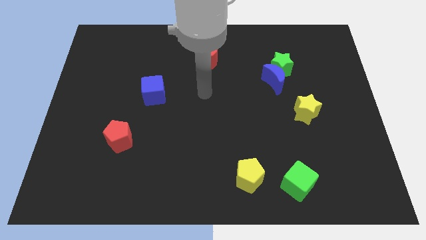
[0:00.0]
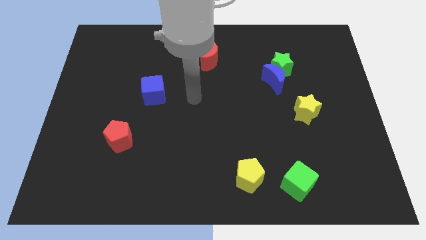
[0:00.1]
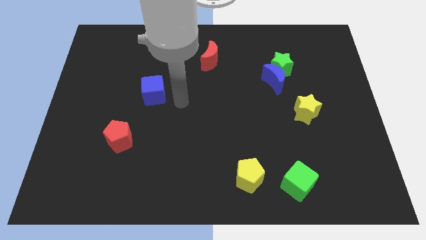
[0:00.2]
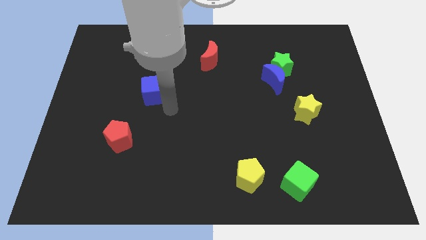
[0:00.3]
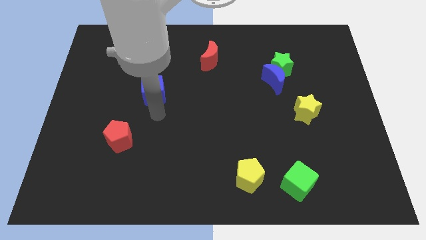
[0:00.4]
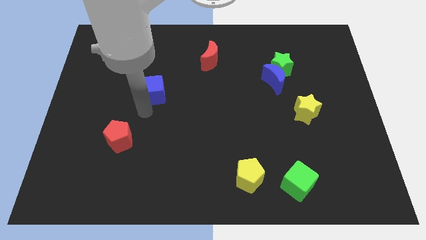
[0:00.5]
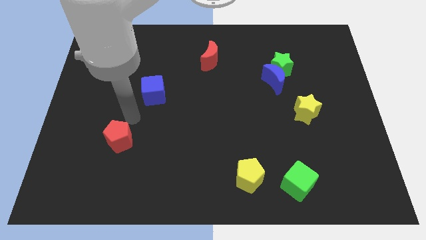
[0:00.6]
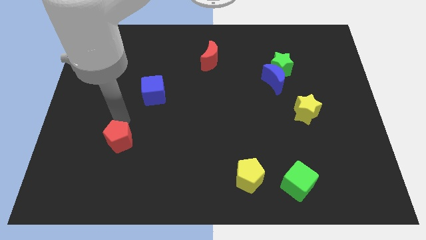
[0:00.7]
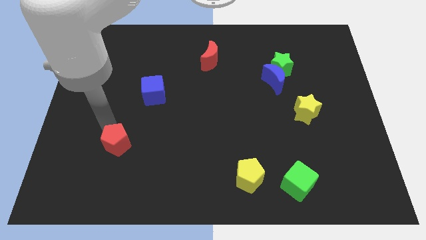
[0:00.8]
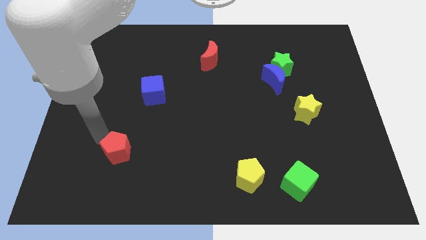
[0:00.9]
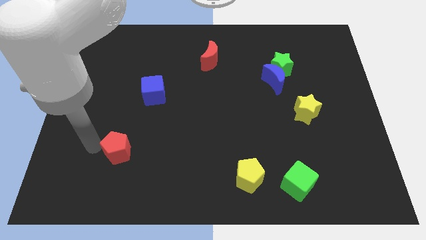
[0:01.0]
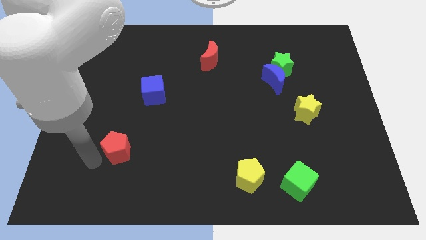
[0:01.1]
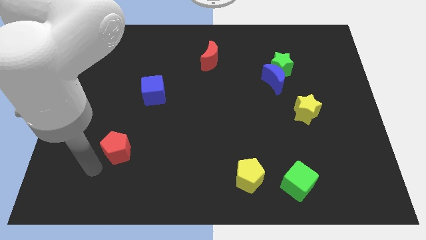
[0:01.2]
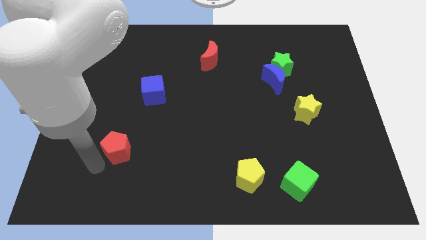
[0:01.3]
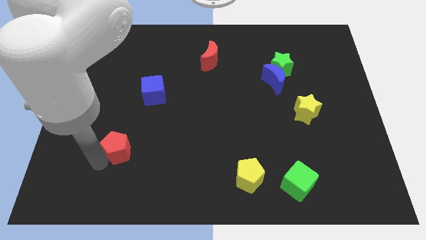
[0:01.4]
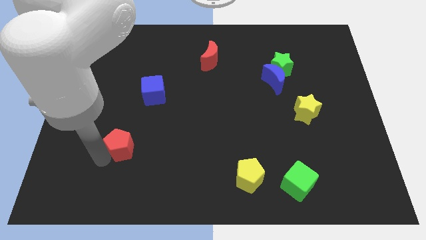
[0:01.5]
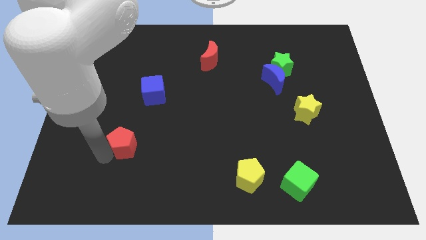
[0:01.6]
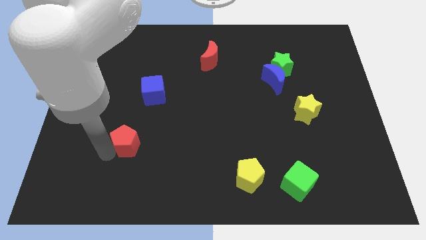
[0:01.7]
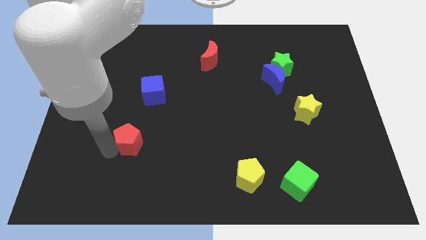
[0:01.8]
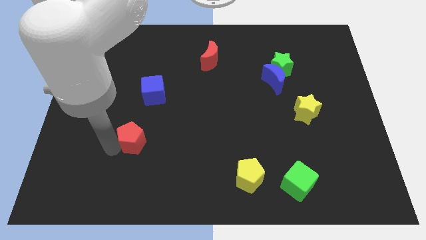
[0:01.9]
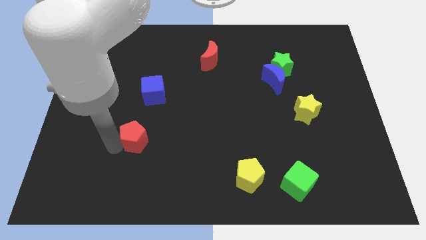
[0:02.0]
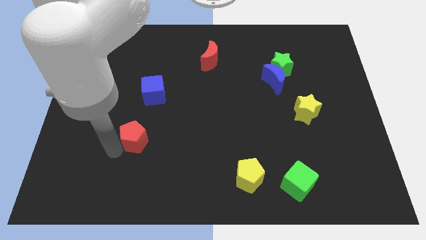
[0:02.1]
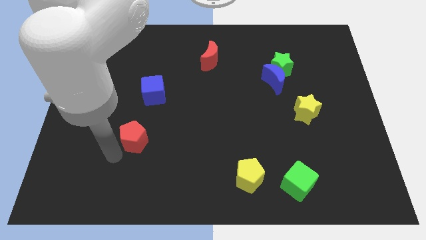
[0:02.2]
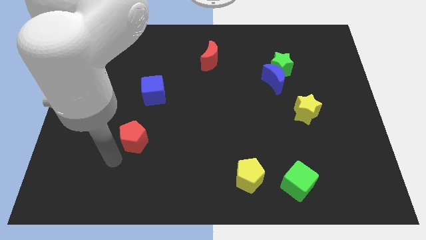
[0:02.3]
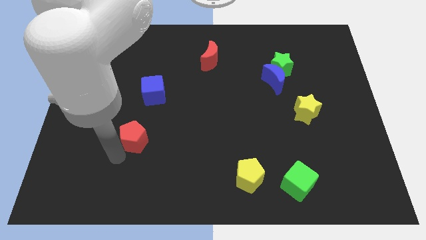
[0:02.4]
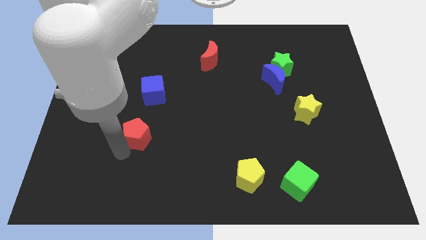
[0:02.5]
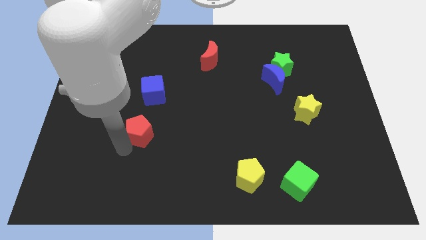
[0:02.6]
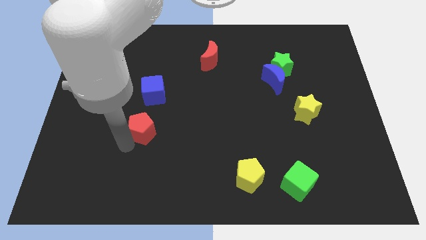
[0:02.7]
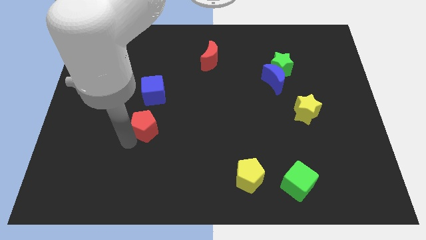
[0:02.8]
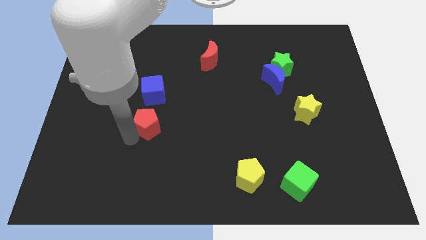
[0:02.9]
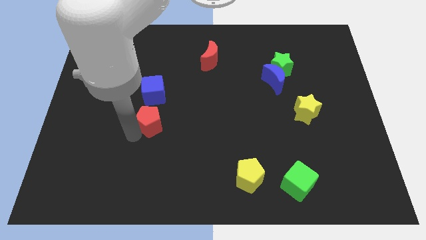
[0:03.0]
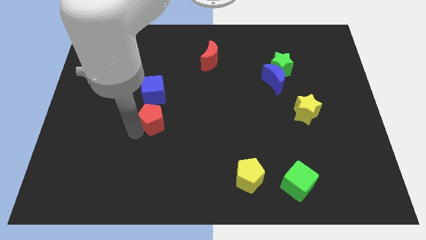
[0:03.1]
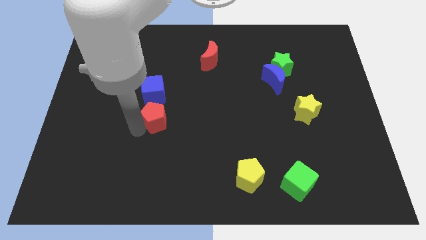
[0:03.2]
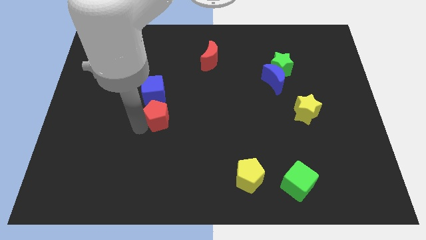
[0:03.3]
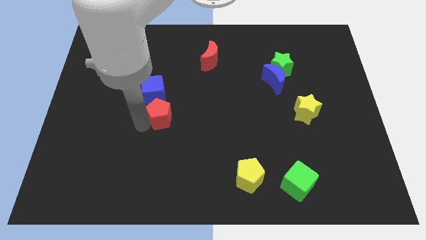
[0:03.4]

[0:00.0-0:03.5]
slightly move the red pentagon right

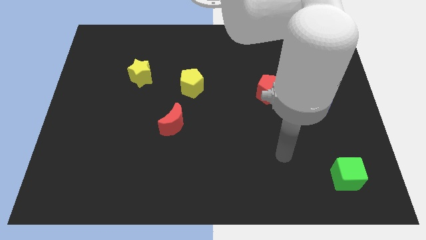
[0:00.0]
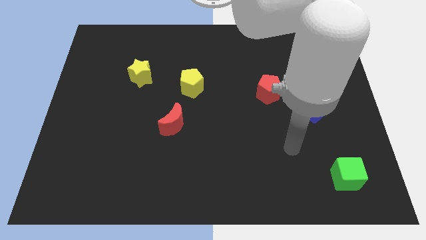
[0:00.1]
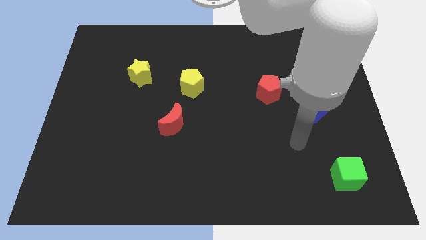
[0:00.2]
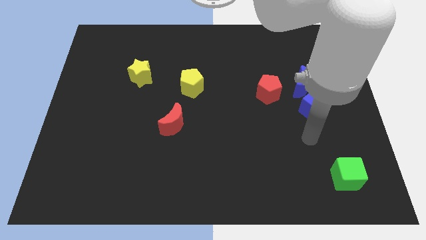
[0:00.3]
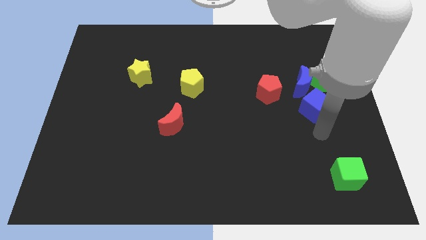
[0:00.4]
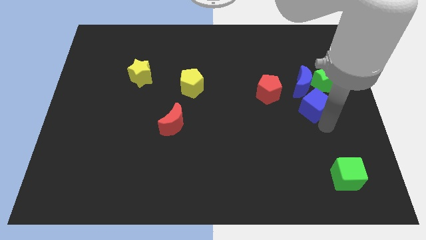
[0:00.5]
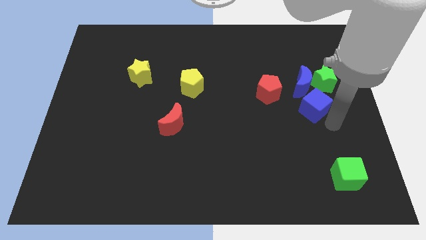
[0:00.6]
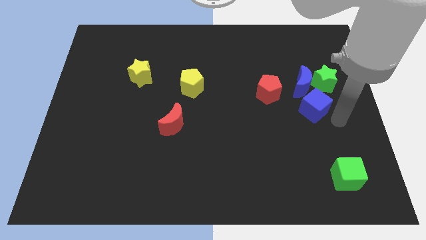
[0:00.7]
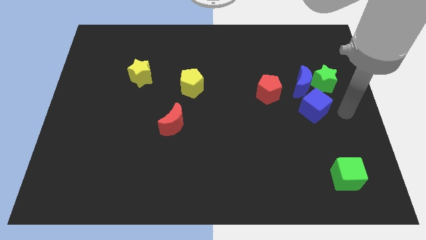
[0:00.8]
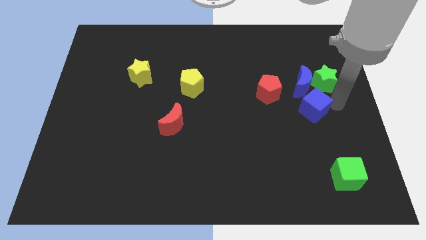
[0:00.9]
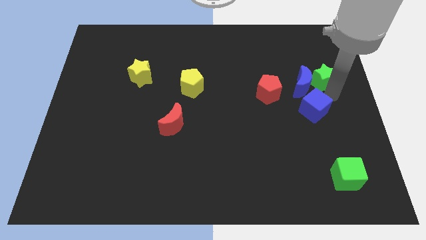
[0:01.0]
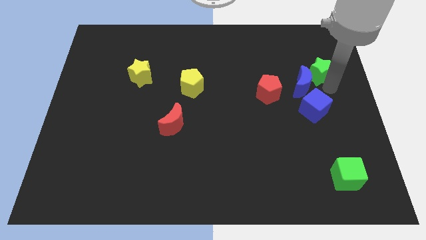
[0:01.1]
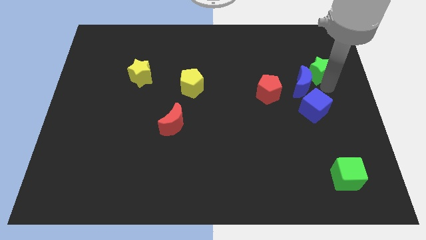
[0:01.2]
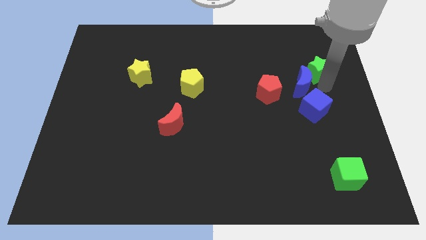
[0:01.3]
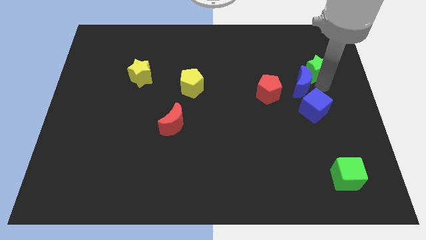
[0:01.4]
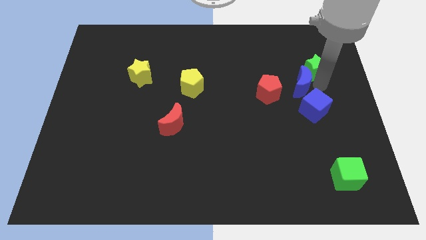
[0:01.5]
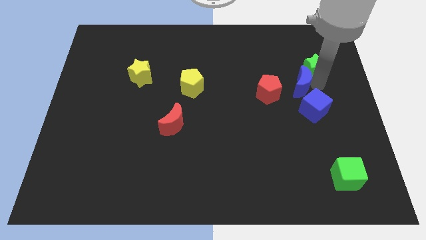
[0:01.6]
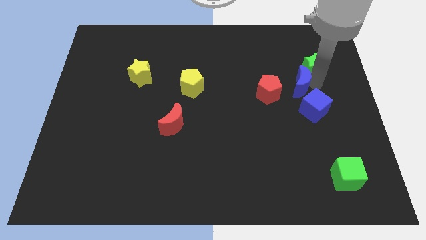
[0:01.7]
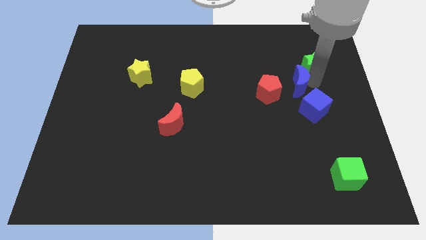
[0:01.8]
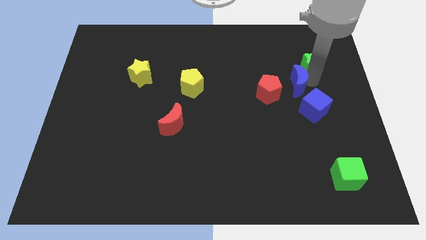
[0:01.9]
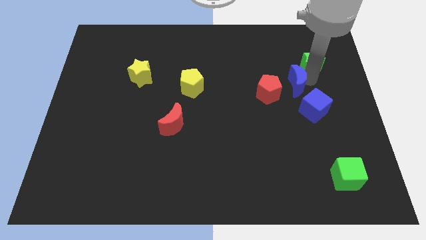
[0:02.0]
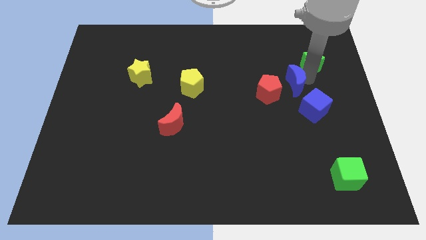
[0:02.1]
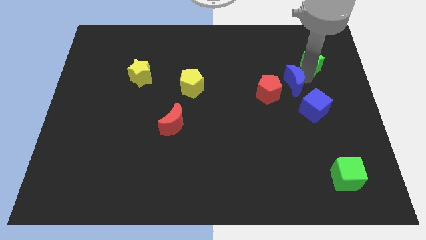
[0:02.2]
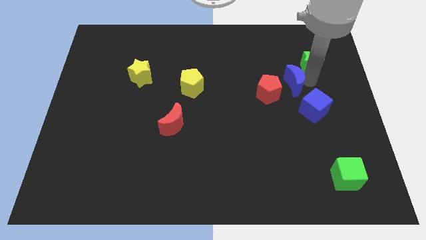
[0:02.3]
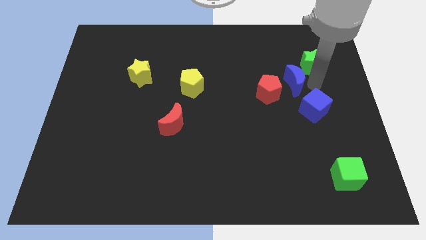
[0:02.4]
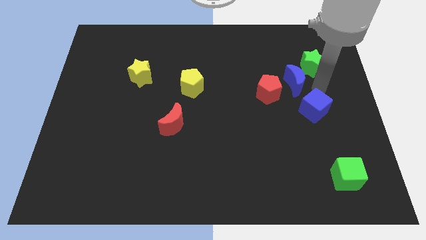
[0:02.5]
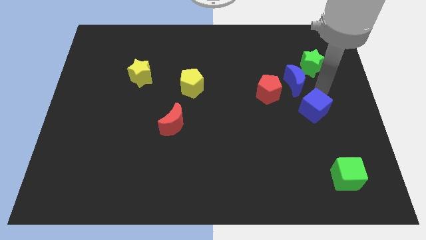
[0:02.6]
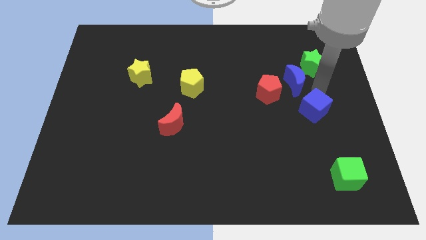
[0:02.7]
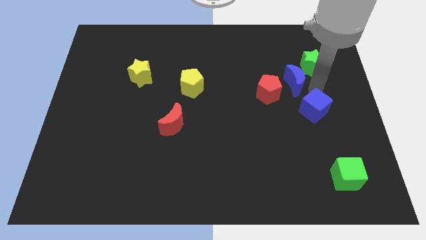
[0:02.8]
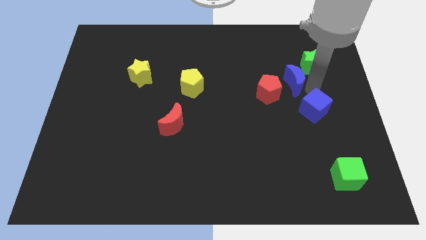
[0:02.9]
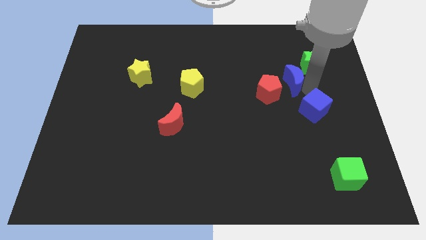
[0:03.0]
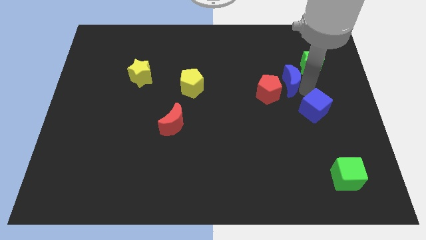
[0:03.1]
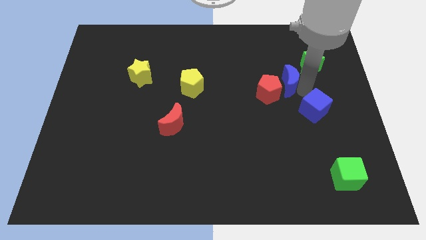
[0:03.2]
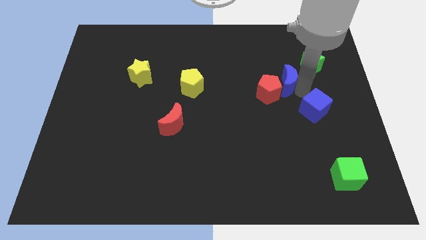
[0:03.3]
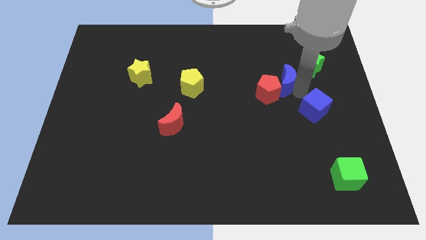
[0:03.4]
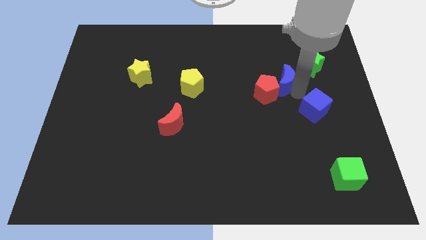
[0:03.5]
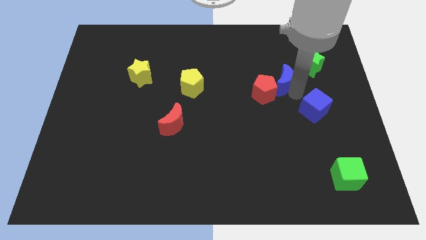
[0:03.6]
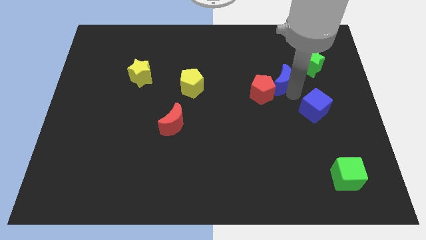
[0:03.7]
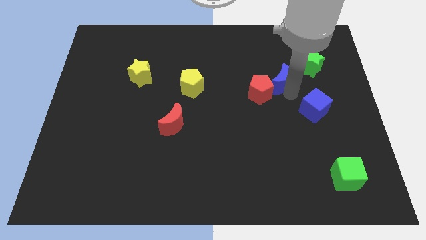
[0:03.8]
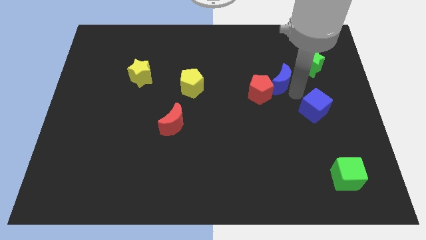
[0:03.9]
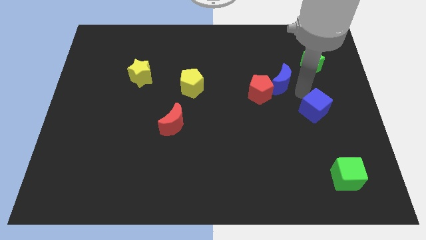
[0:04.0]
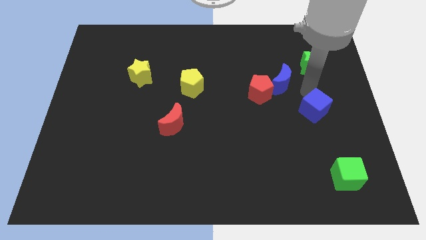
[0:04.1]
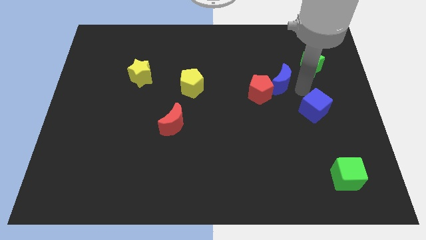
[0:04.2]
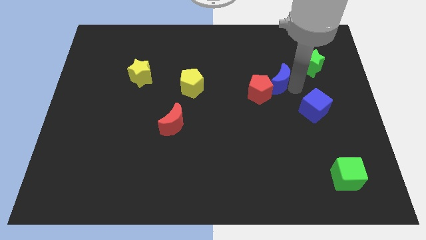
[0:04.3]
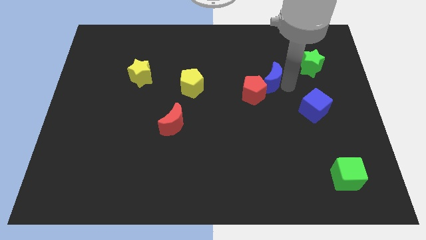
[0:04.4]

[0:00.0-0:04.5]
push the blue moon left a little bit
